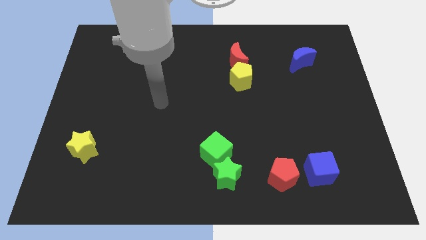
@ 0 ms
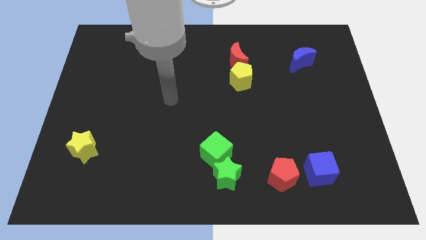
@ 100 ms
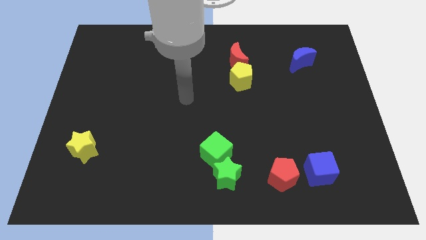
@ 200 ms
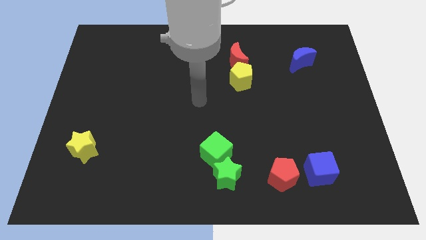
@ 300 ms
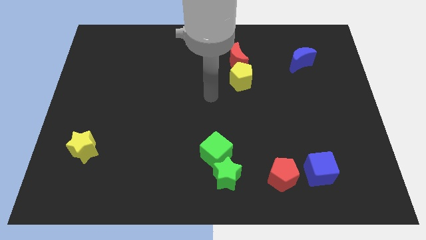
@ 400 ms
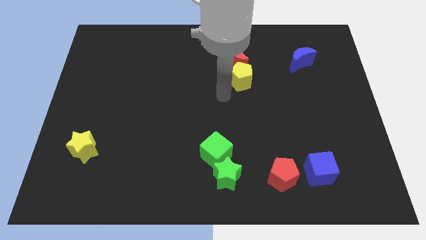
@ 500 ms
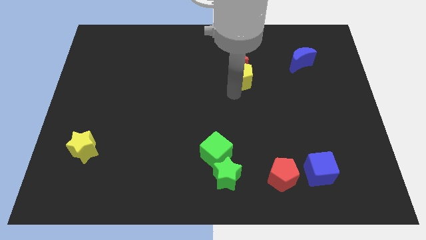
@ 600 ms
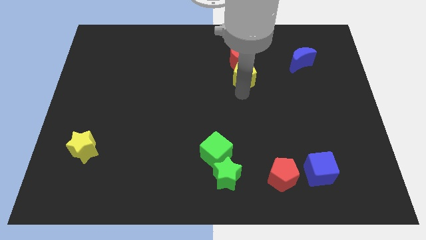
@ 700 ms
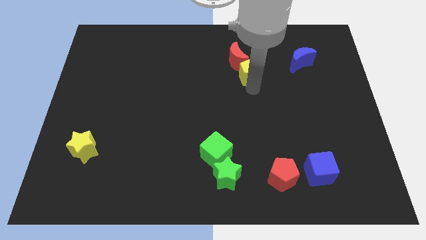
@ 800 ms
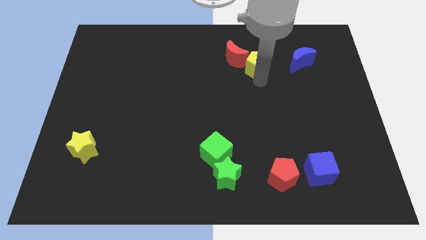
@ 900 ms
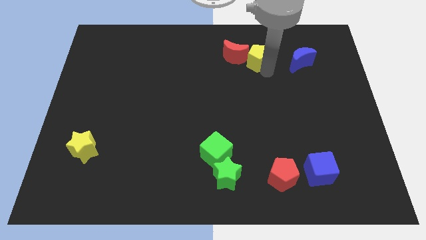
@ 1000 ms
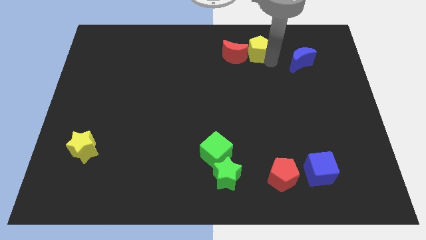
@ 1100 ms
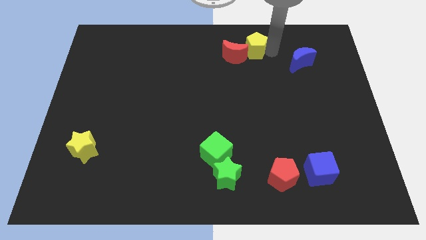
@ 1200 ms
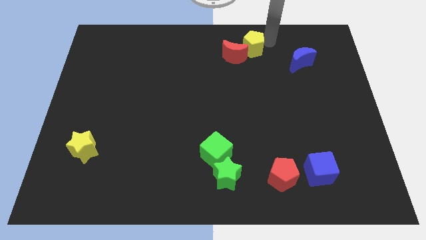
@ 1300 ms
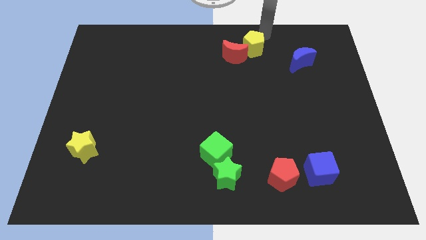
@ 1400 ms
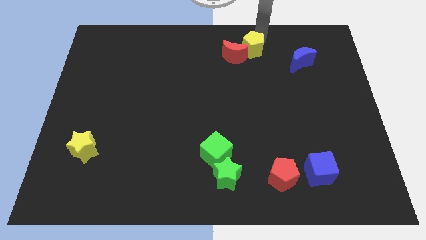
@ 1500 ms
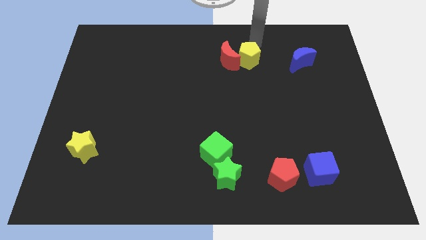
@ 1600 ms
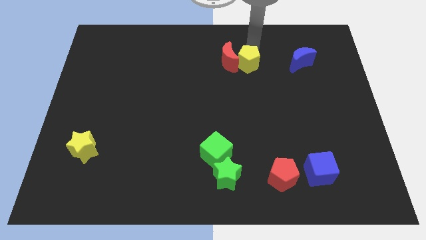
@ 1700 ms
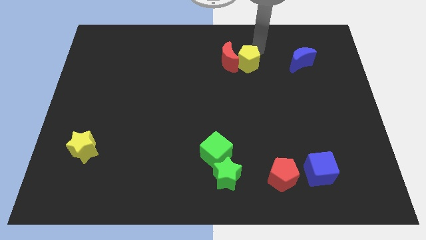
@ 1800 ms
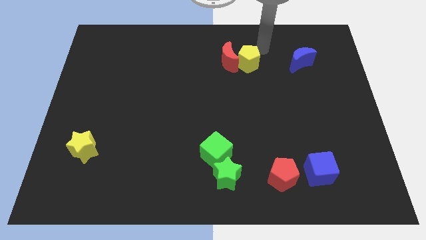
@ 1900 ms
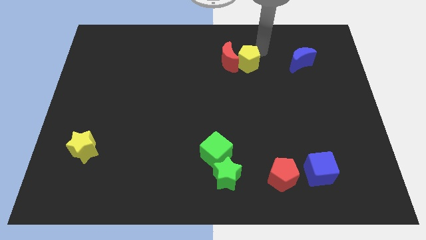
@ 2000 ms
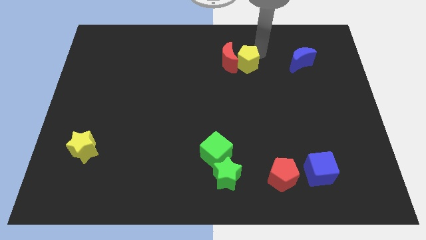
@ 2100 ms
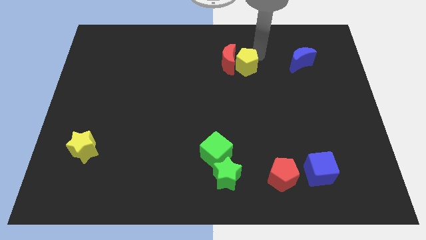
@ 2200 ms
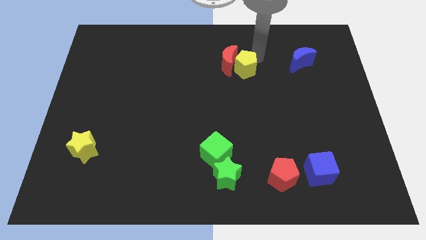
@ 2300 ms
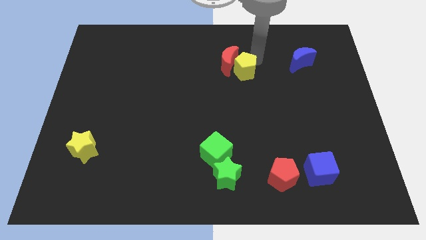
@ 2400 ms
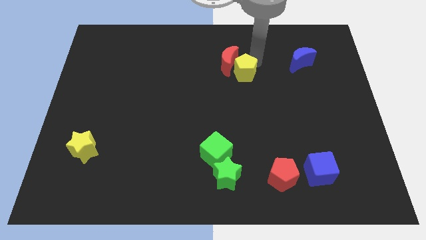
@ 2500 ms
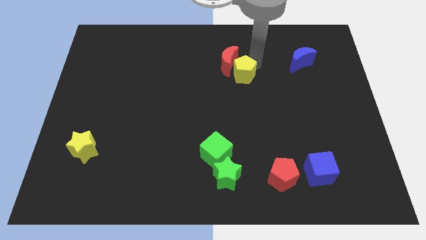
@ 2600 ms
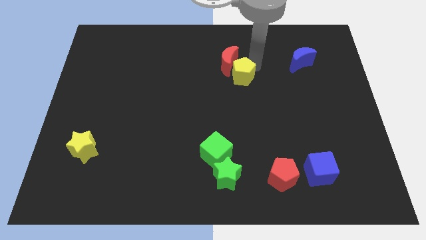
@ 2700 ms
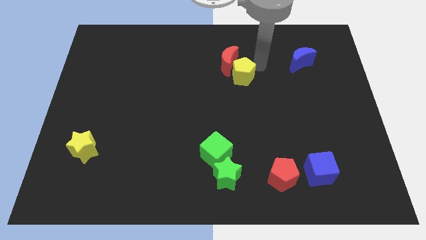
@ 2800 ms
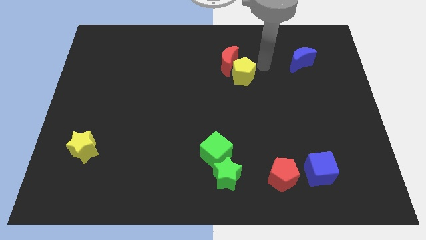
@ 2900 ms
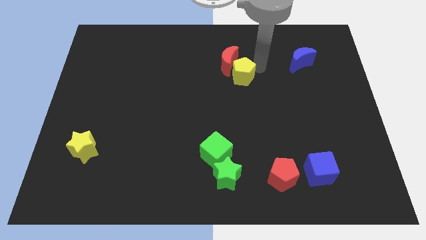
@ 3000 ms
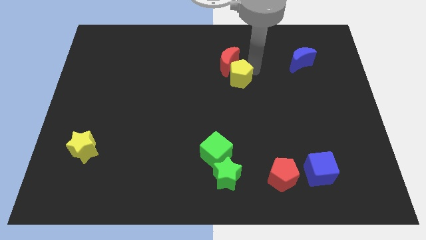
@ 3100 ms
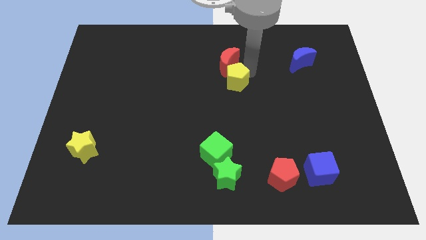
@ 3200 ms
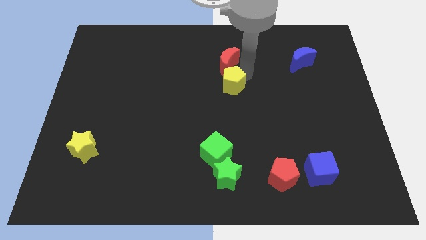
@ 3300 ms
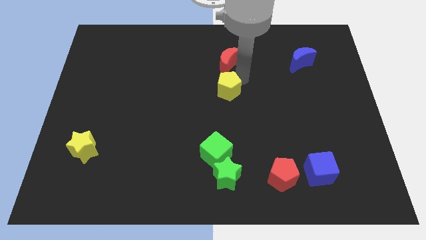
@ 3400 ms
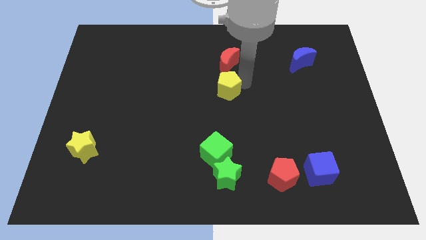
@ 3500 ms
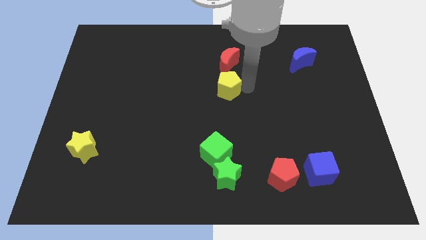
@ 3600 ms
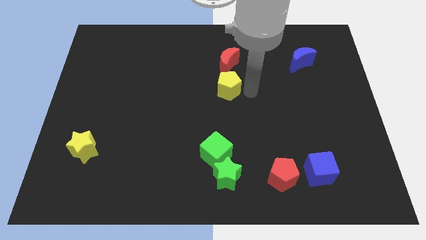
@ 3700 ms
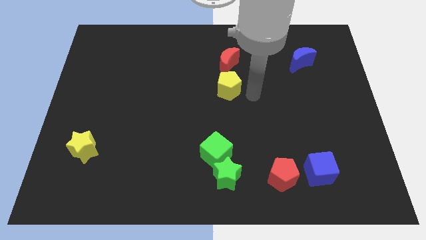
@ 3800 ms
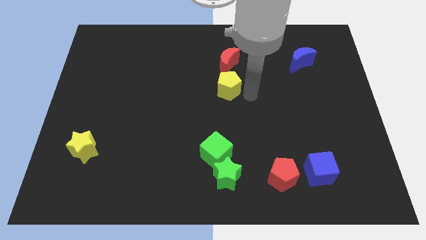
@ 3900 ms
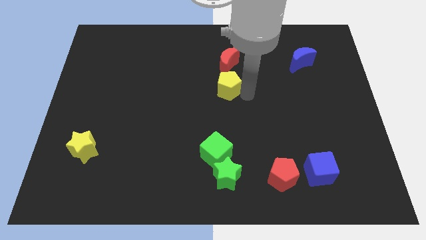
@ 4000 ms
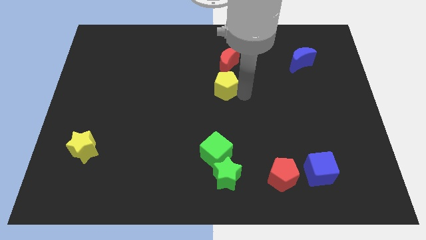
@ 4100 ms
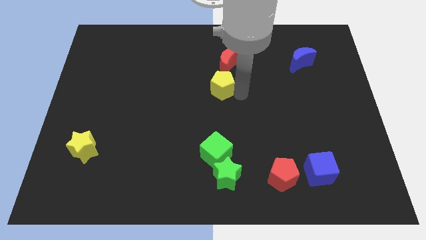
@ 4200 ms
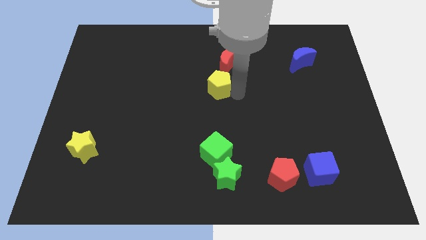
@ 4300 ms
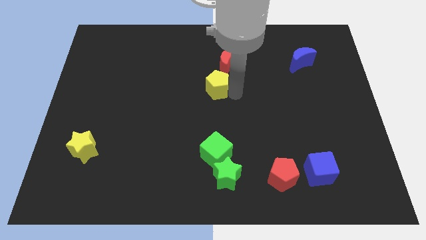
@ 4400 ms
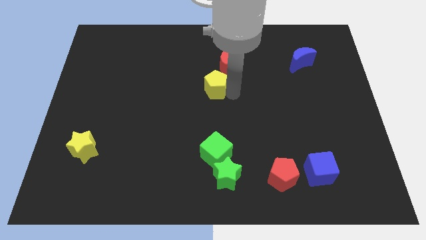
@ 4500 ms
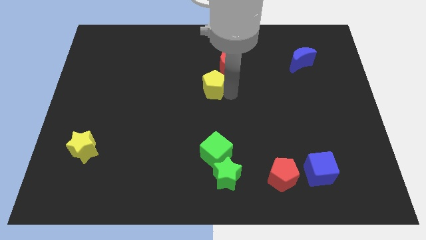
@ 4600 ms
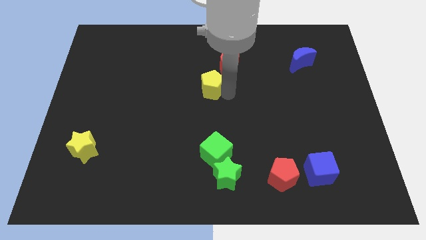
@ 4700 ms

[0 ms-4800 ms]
slide the yellow pentagon left a little

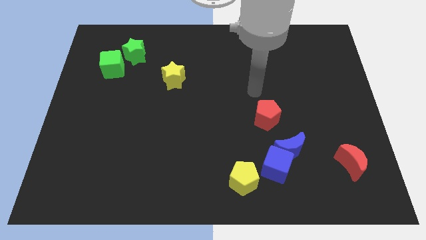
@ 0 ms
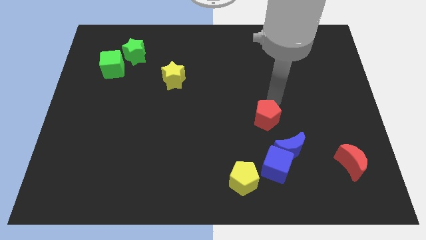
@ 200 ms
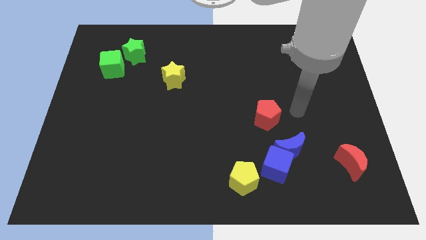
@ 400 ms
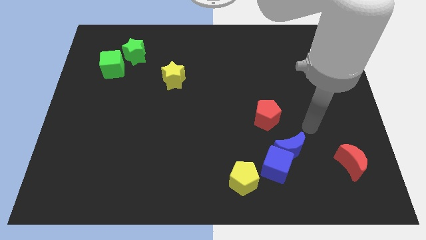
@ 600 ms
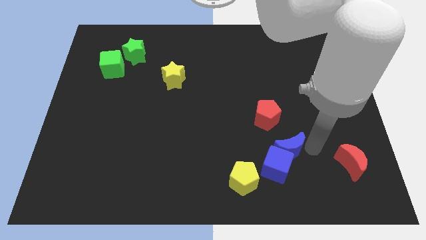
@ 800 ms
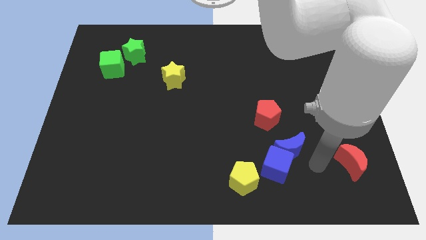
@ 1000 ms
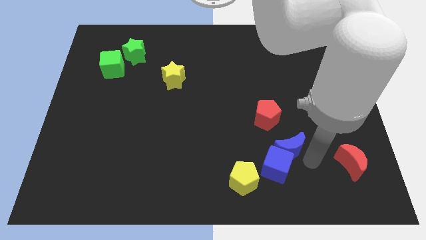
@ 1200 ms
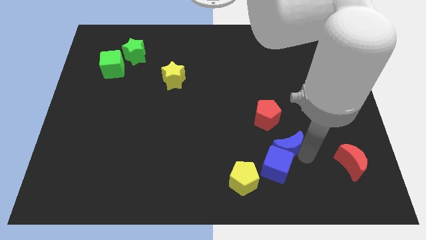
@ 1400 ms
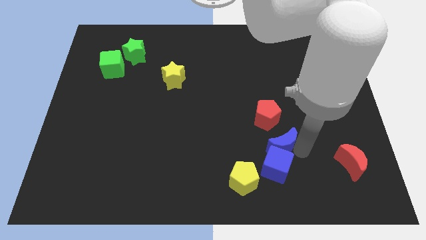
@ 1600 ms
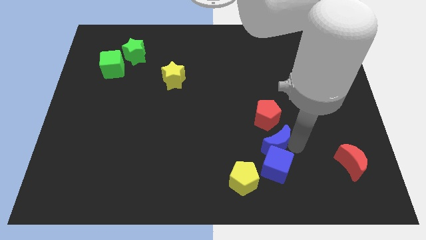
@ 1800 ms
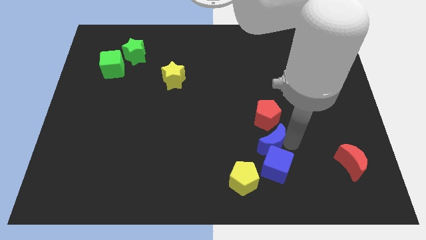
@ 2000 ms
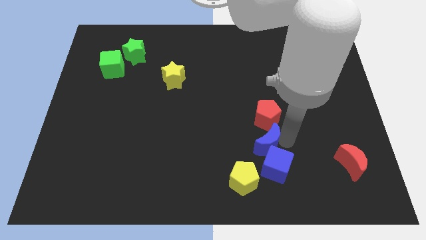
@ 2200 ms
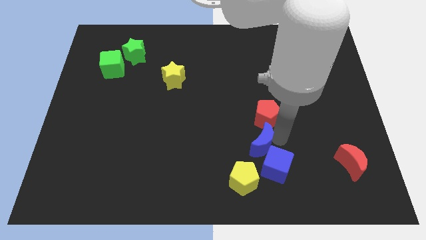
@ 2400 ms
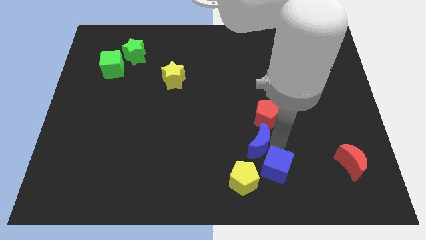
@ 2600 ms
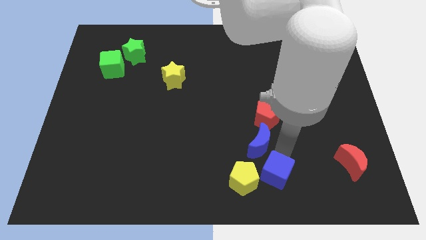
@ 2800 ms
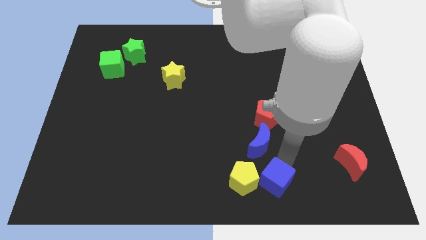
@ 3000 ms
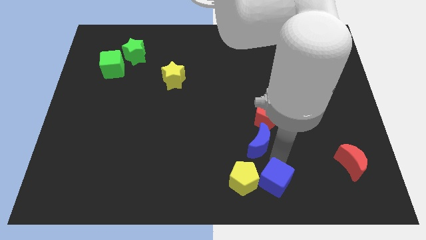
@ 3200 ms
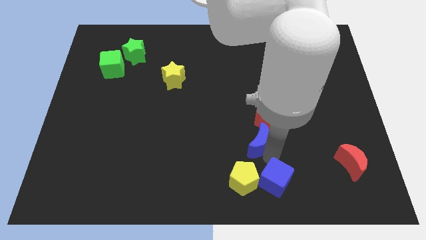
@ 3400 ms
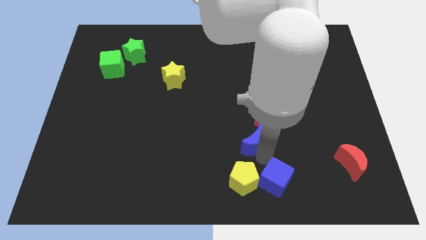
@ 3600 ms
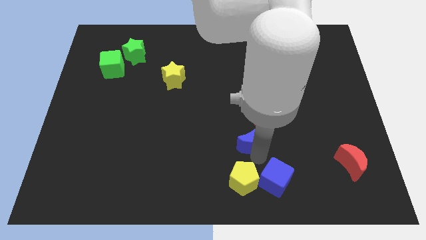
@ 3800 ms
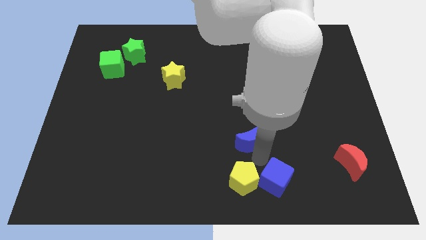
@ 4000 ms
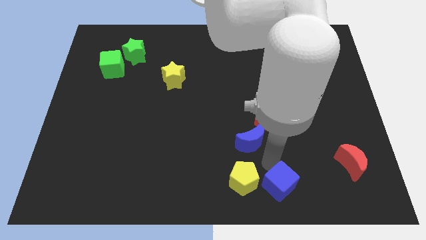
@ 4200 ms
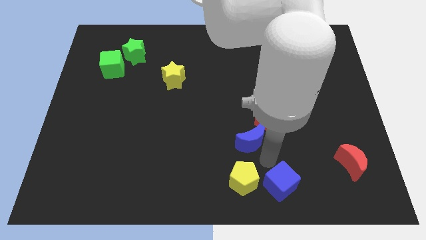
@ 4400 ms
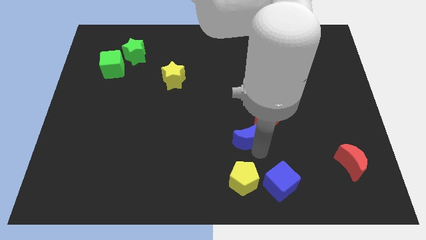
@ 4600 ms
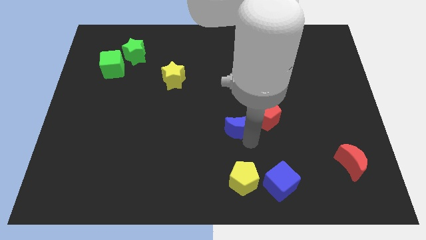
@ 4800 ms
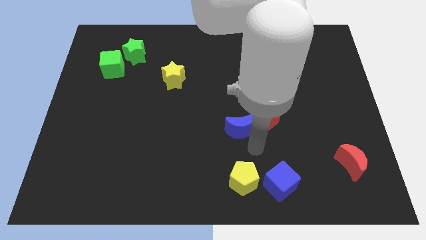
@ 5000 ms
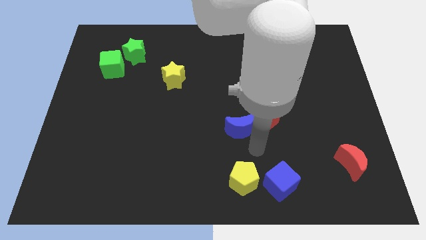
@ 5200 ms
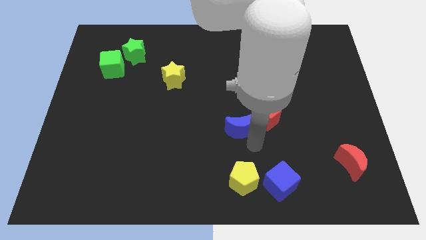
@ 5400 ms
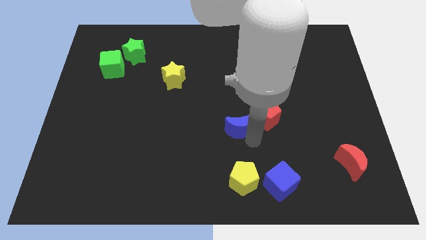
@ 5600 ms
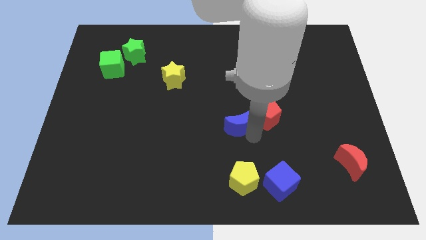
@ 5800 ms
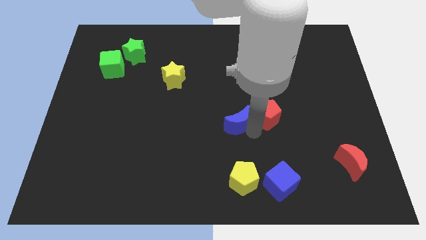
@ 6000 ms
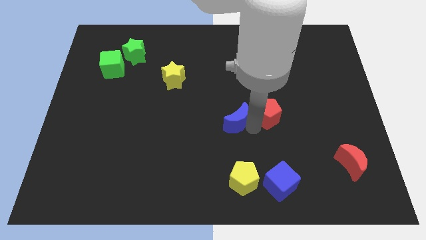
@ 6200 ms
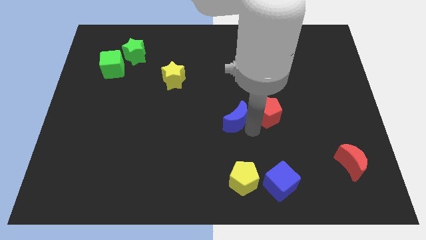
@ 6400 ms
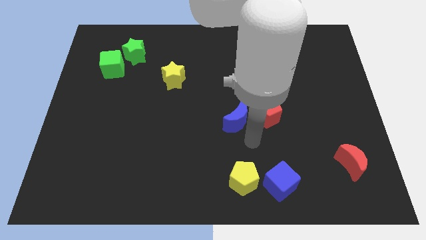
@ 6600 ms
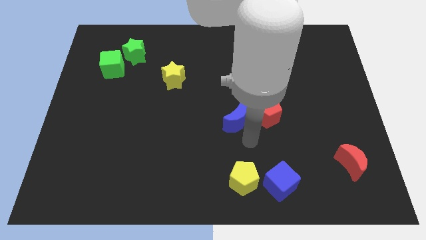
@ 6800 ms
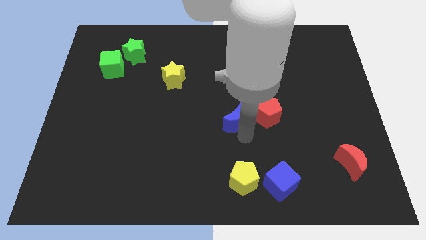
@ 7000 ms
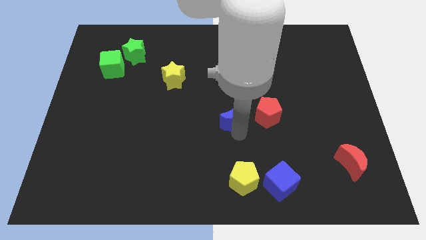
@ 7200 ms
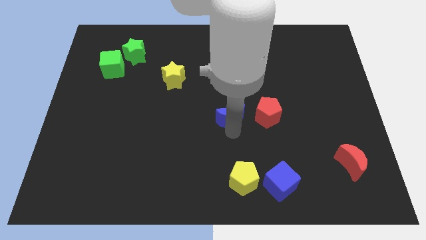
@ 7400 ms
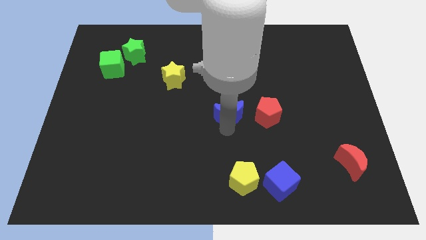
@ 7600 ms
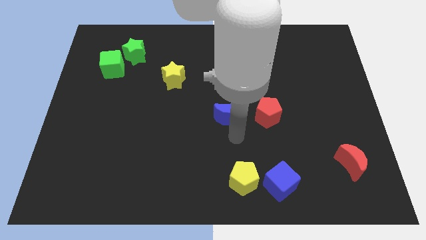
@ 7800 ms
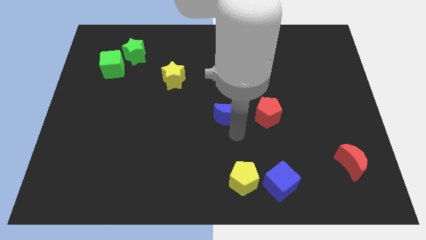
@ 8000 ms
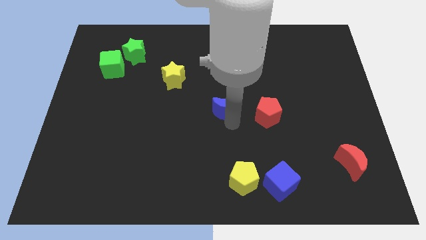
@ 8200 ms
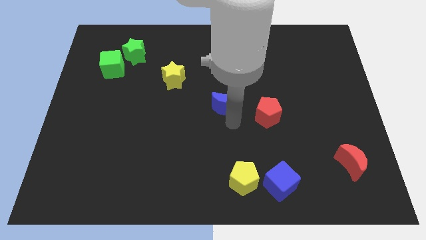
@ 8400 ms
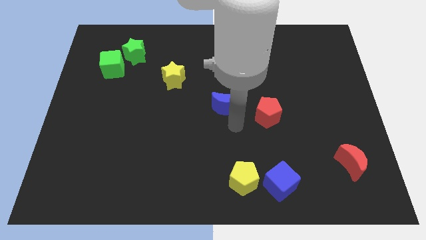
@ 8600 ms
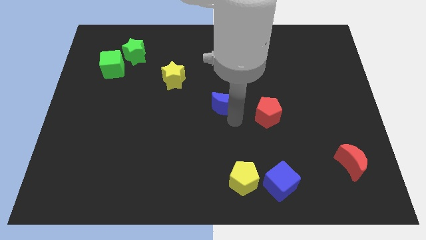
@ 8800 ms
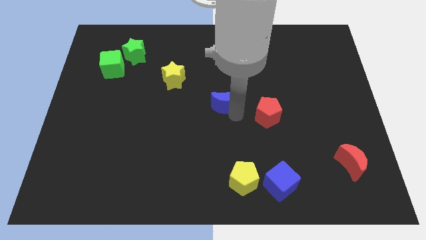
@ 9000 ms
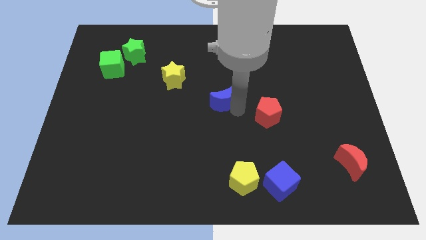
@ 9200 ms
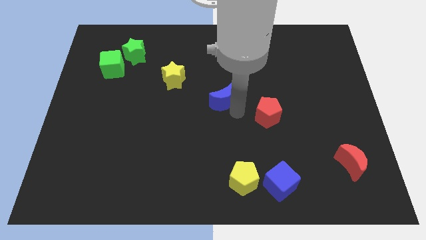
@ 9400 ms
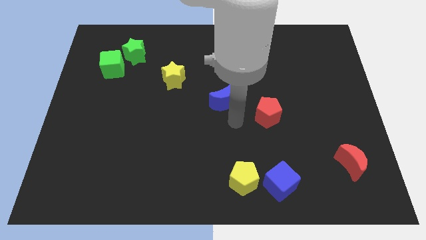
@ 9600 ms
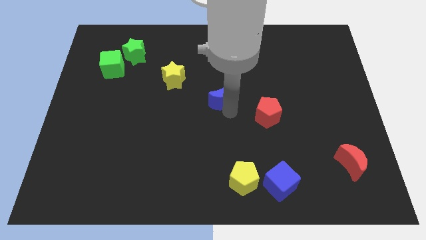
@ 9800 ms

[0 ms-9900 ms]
move the blue moon up and left diagonally
